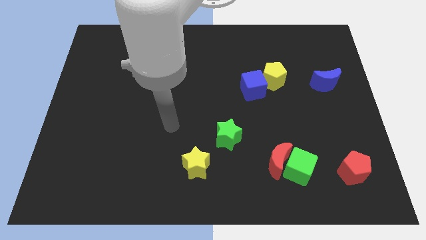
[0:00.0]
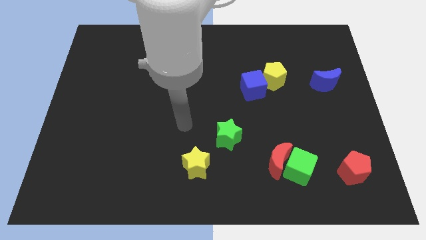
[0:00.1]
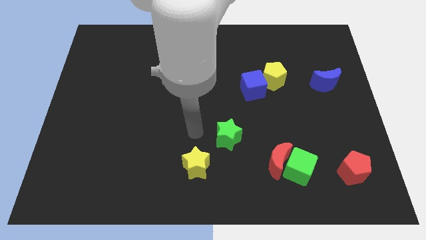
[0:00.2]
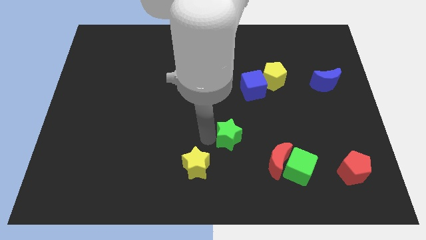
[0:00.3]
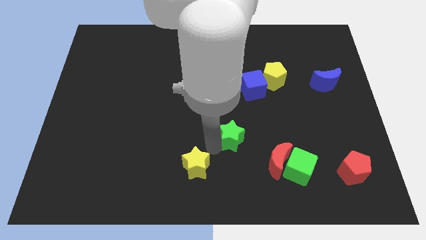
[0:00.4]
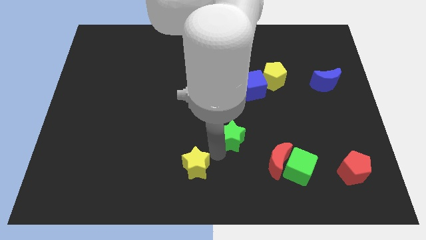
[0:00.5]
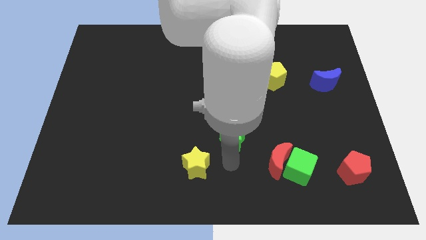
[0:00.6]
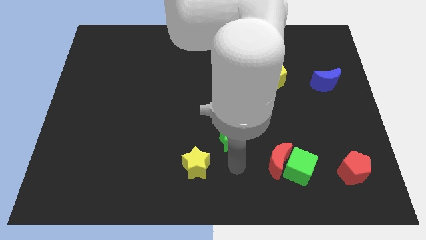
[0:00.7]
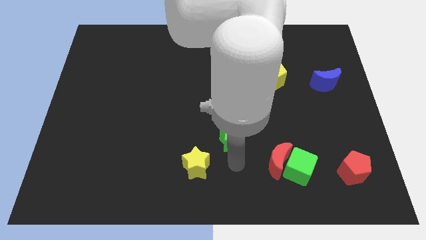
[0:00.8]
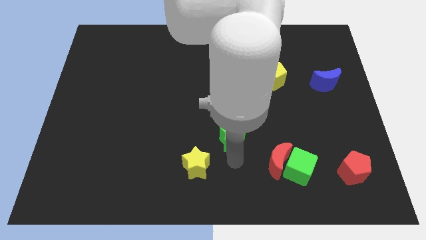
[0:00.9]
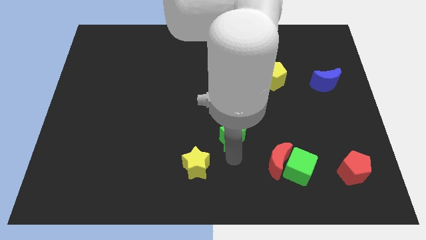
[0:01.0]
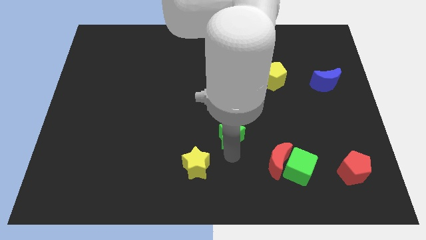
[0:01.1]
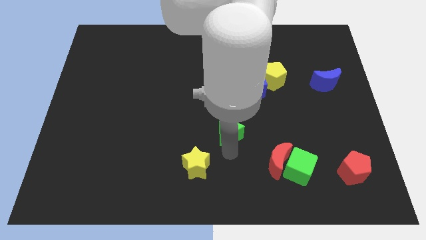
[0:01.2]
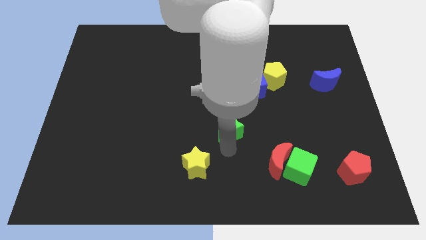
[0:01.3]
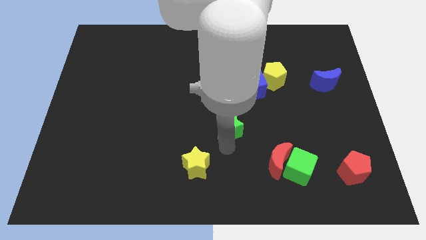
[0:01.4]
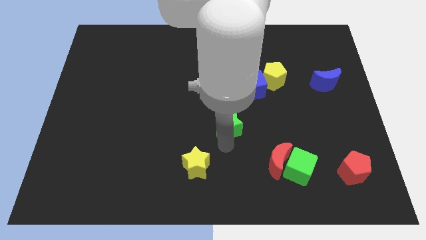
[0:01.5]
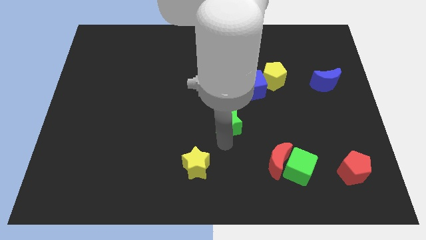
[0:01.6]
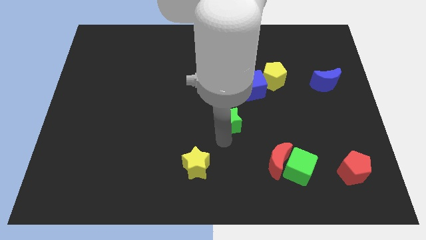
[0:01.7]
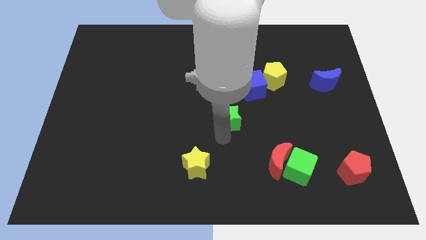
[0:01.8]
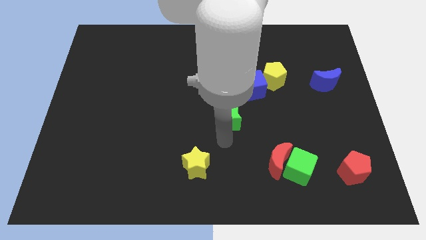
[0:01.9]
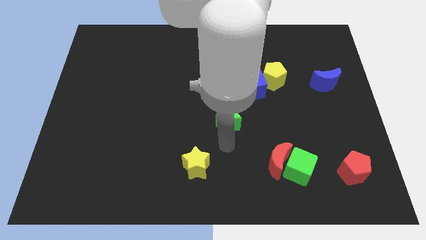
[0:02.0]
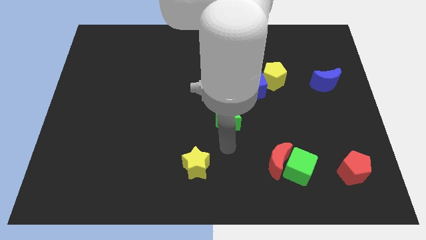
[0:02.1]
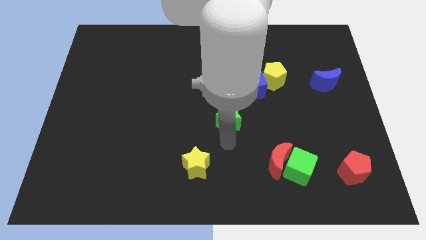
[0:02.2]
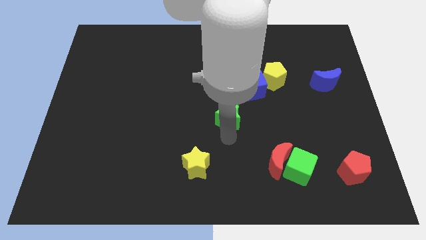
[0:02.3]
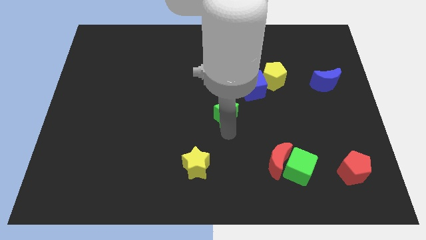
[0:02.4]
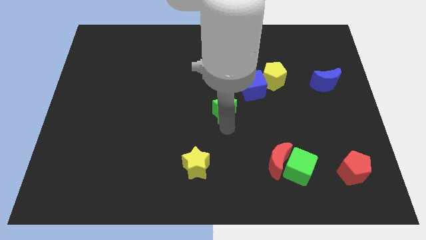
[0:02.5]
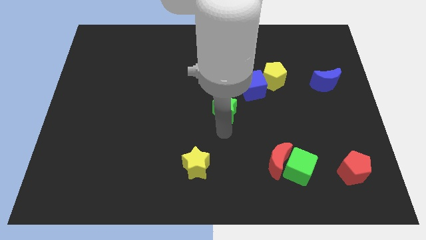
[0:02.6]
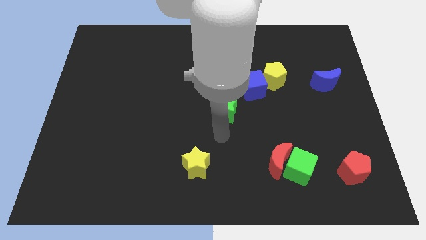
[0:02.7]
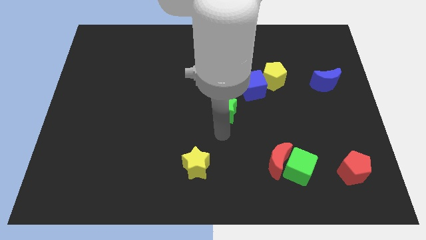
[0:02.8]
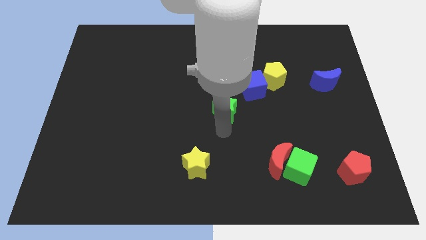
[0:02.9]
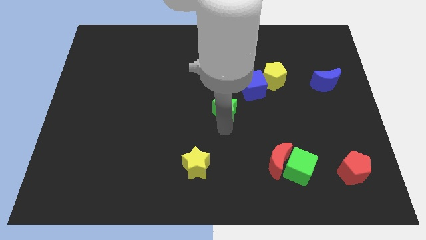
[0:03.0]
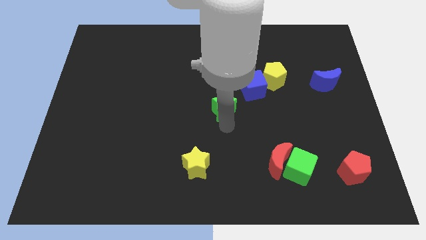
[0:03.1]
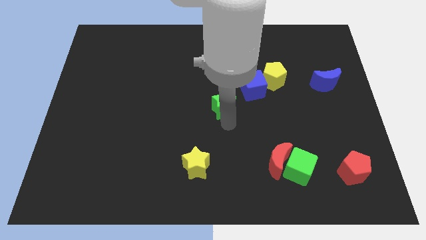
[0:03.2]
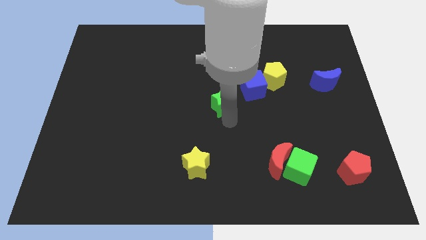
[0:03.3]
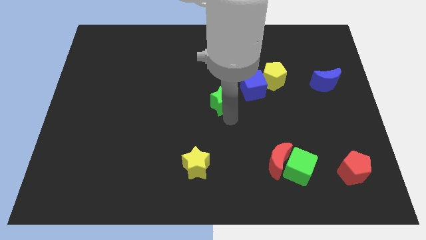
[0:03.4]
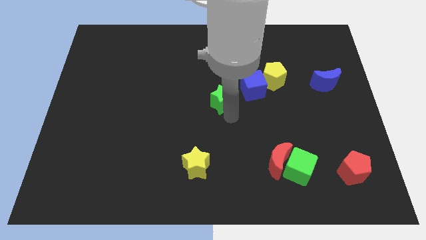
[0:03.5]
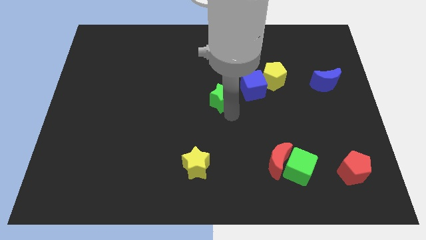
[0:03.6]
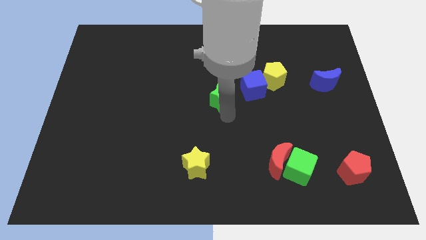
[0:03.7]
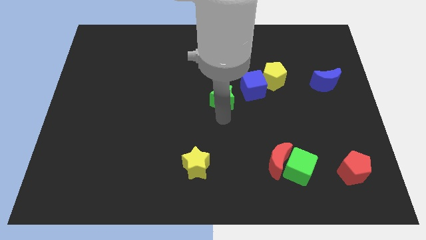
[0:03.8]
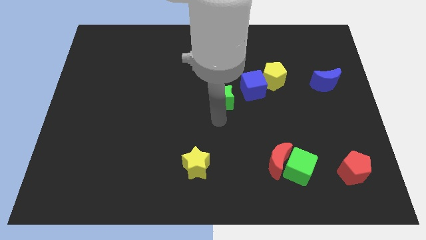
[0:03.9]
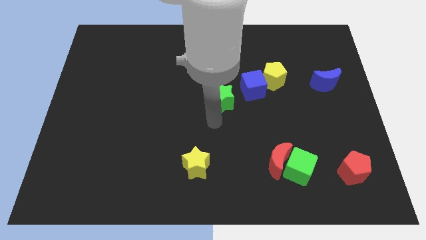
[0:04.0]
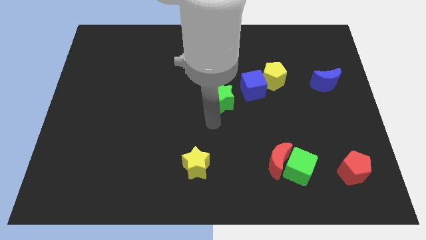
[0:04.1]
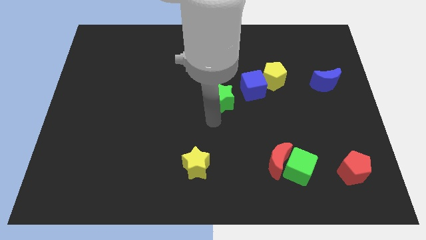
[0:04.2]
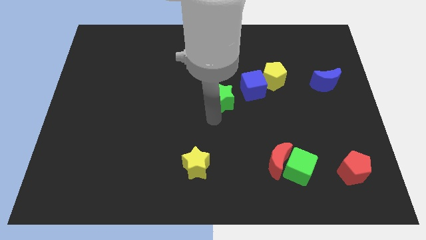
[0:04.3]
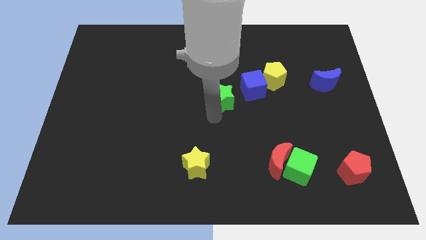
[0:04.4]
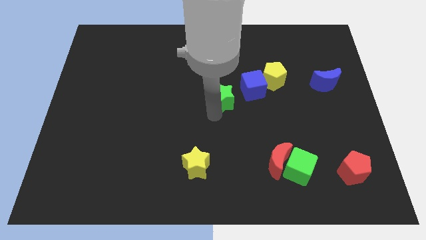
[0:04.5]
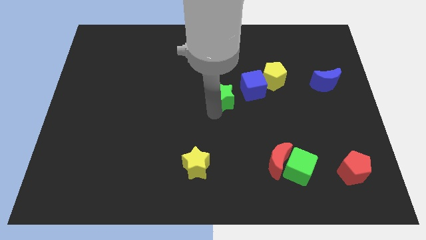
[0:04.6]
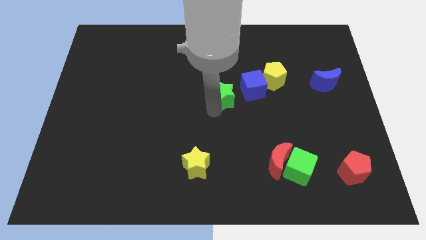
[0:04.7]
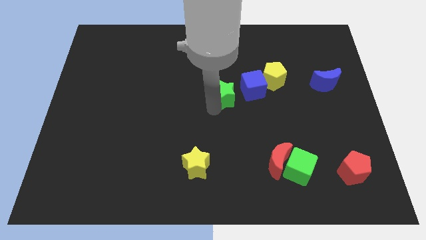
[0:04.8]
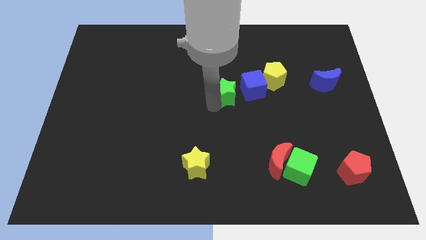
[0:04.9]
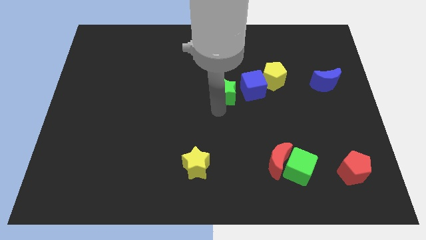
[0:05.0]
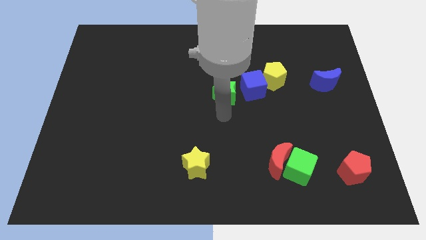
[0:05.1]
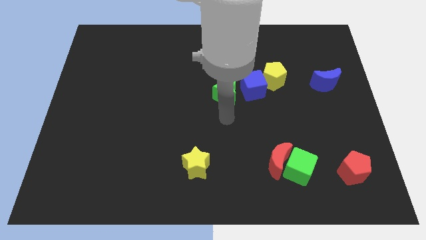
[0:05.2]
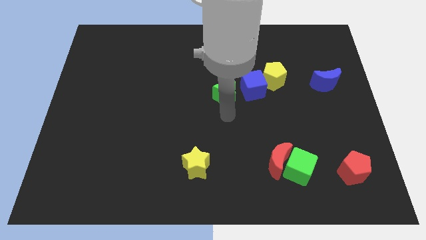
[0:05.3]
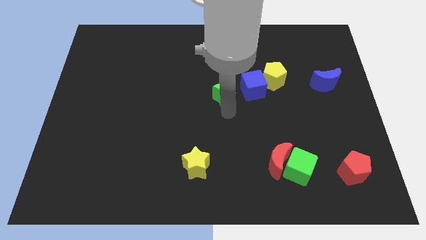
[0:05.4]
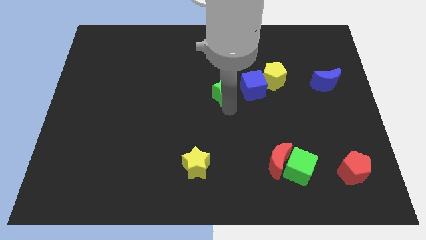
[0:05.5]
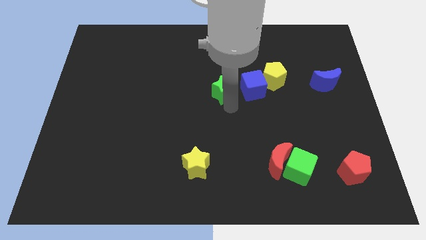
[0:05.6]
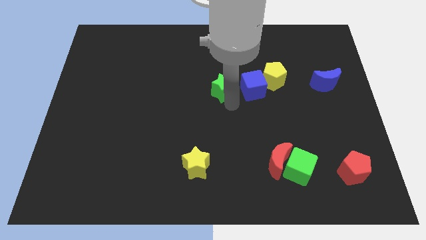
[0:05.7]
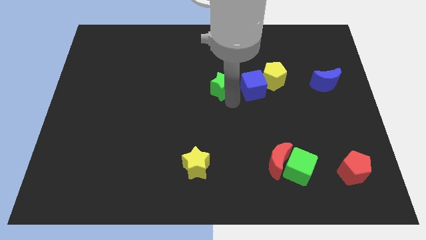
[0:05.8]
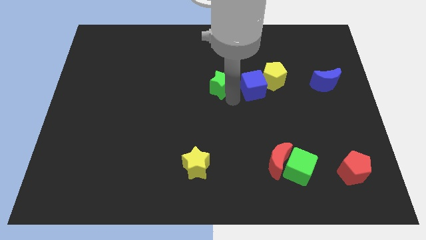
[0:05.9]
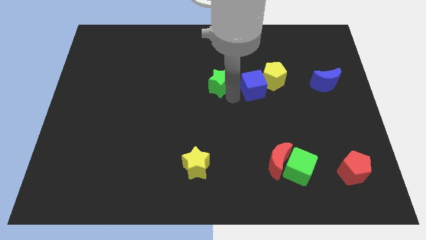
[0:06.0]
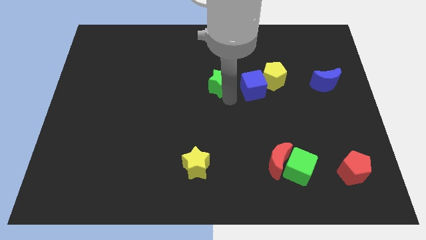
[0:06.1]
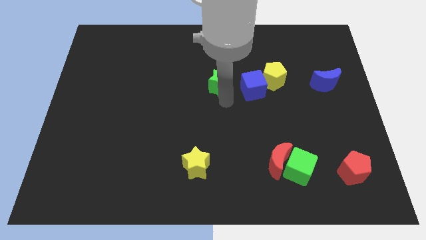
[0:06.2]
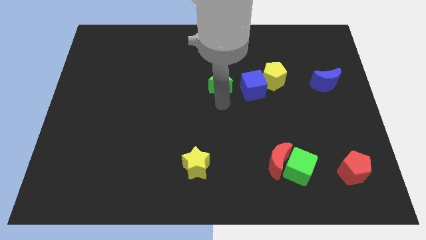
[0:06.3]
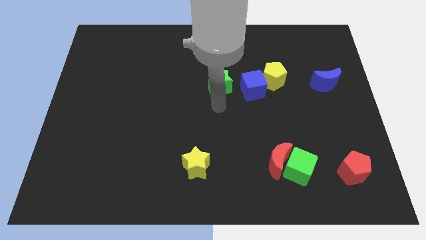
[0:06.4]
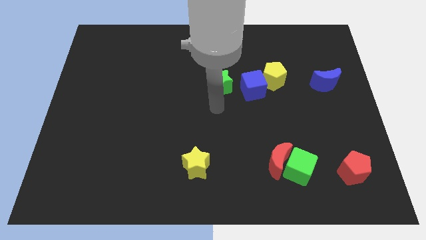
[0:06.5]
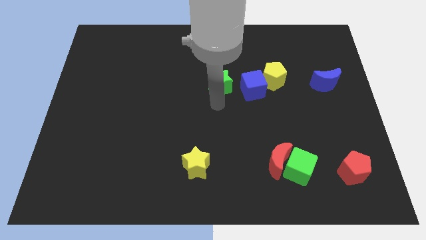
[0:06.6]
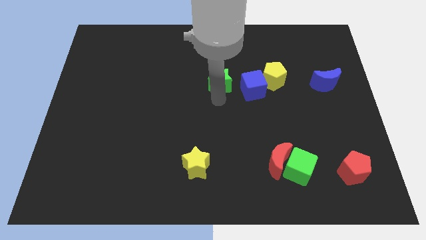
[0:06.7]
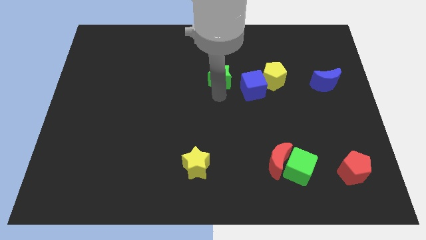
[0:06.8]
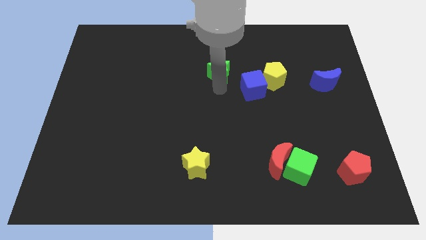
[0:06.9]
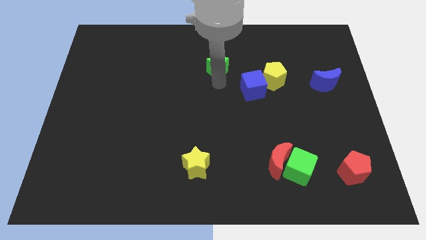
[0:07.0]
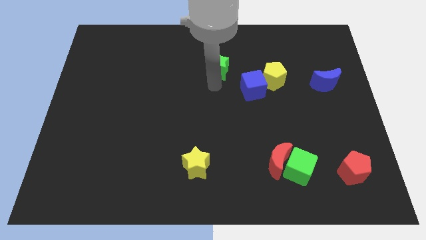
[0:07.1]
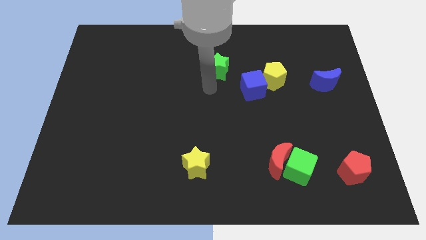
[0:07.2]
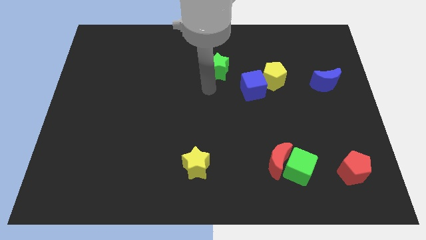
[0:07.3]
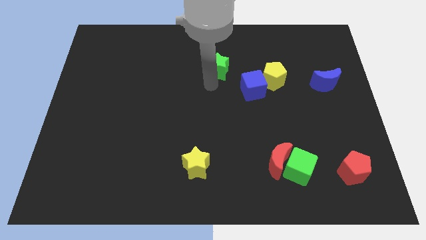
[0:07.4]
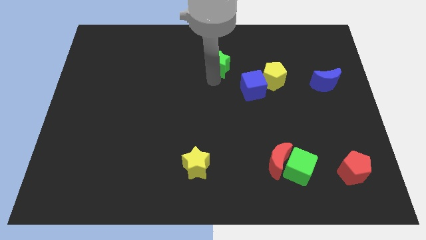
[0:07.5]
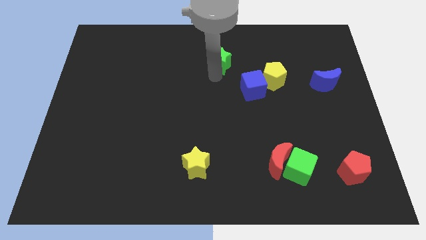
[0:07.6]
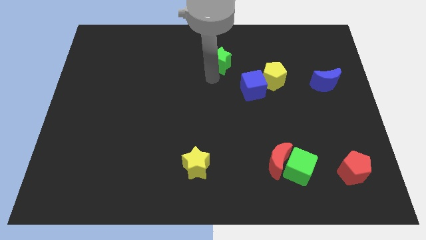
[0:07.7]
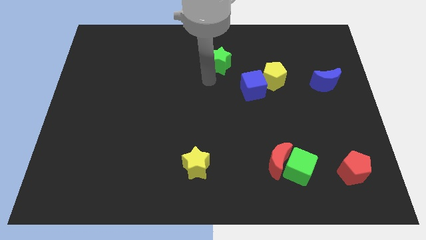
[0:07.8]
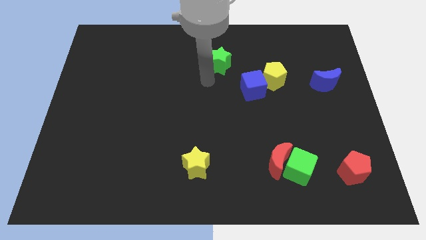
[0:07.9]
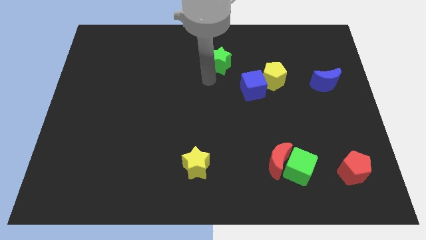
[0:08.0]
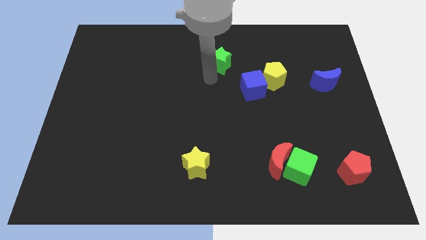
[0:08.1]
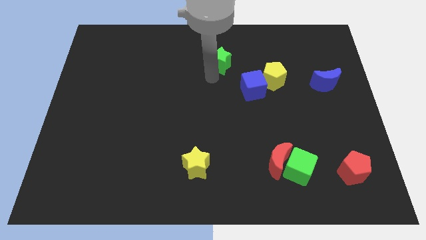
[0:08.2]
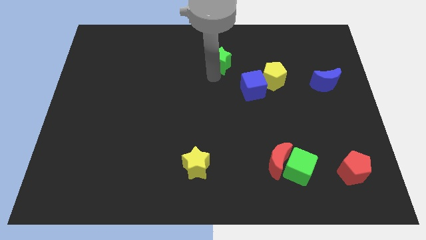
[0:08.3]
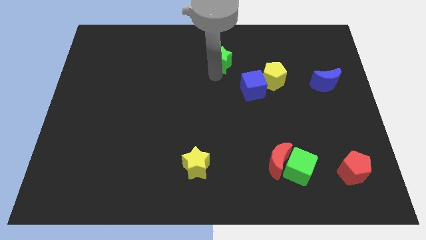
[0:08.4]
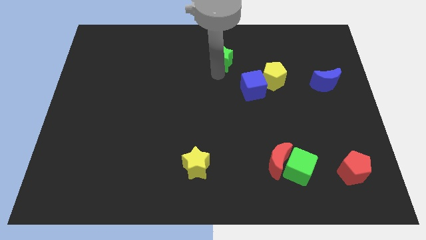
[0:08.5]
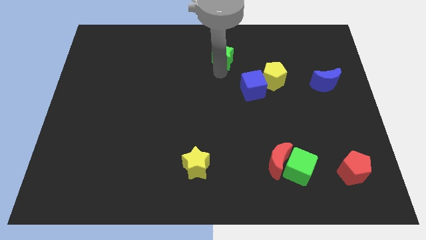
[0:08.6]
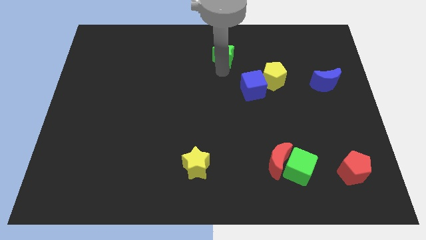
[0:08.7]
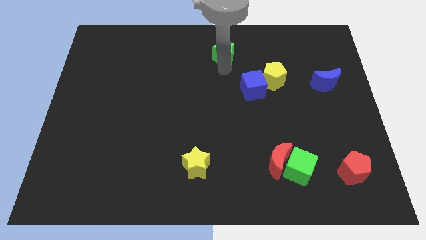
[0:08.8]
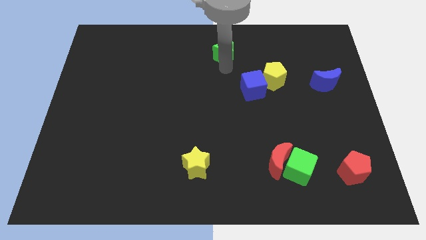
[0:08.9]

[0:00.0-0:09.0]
slide the green star to the top side
